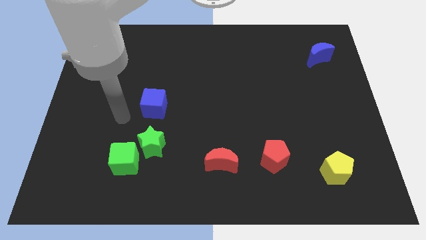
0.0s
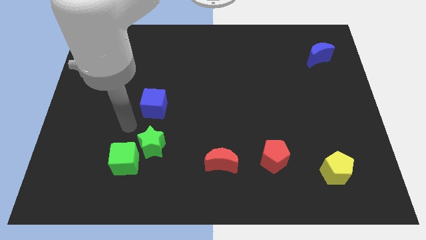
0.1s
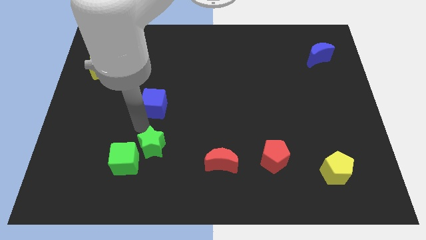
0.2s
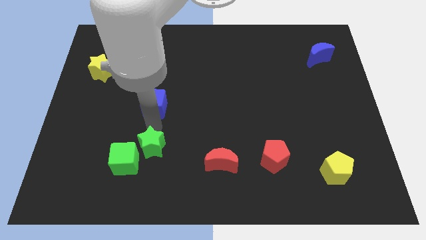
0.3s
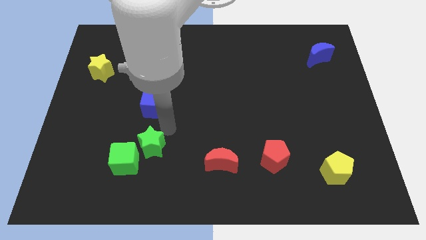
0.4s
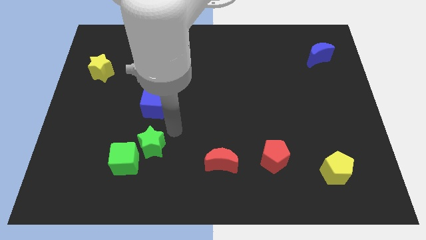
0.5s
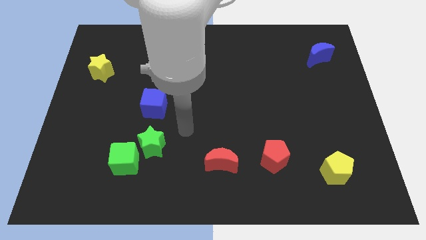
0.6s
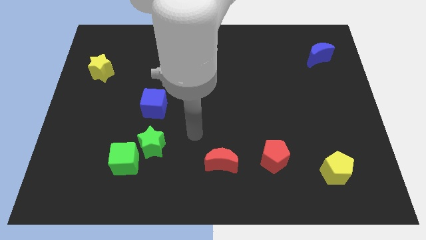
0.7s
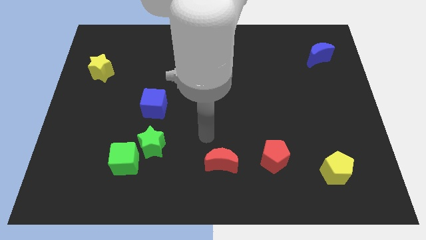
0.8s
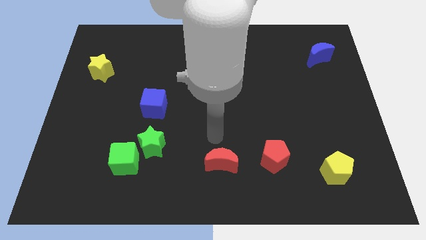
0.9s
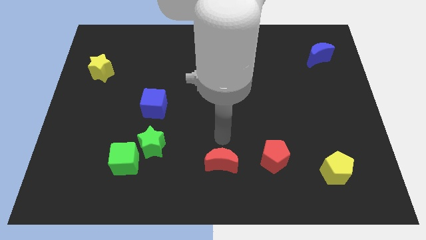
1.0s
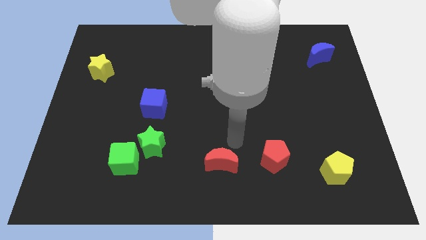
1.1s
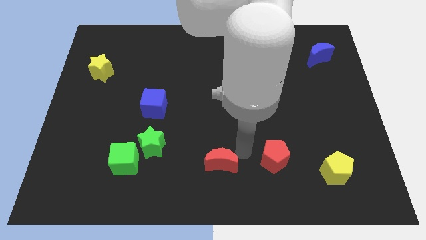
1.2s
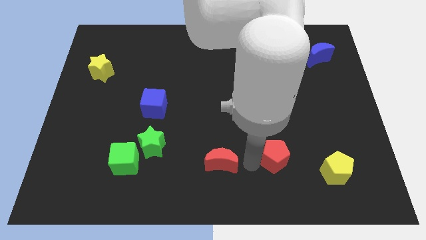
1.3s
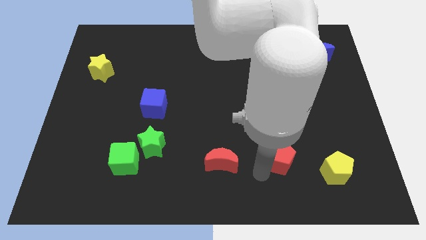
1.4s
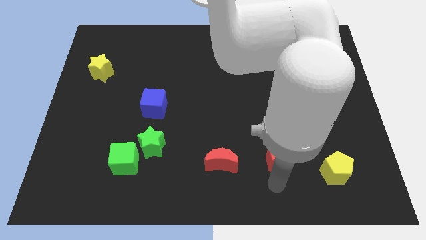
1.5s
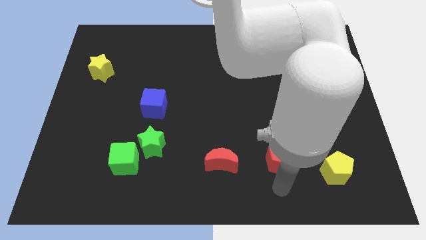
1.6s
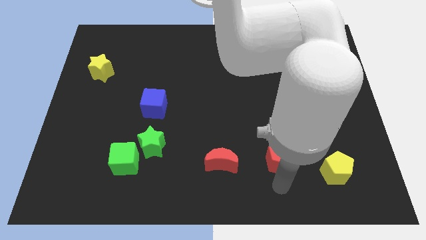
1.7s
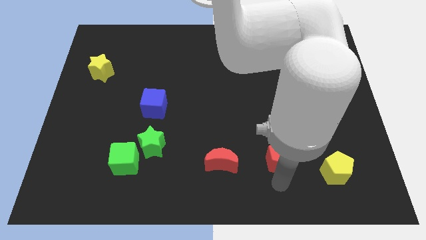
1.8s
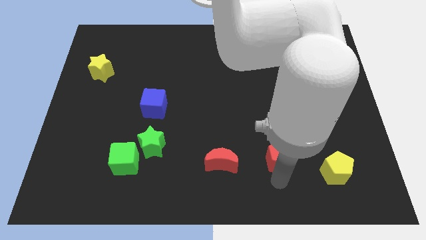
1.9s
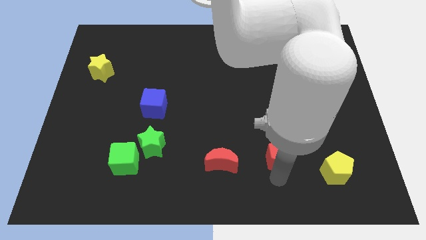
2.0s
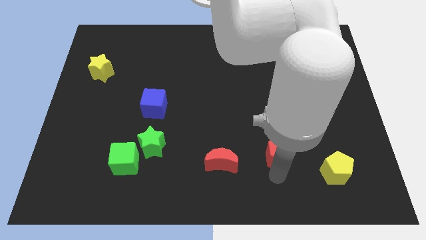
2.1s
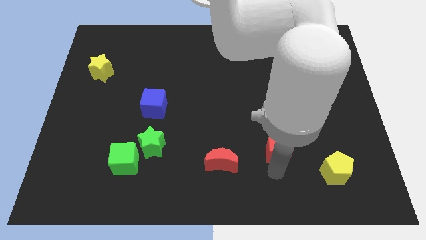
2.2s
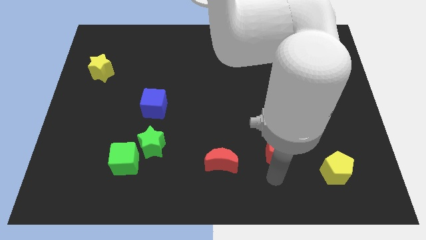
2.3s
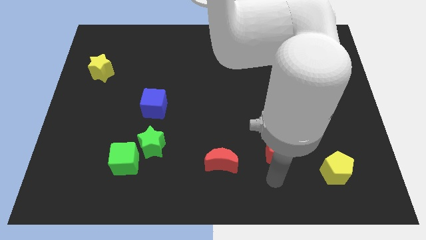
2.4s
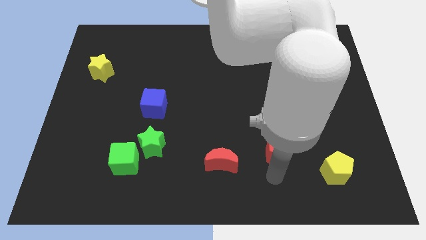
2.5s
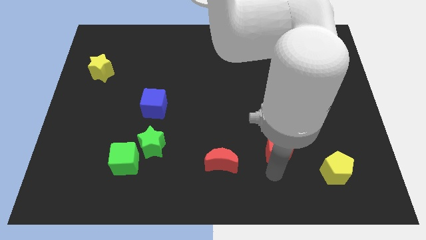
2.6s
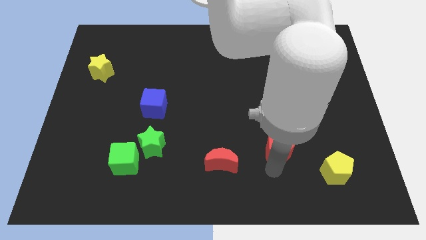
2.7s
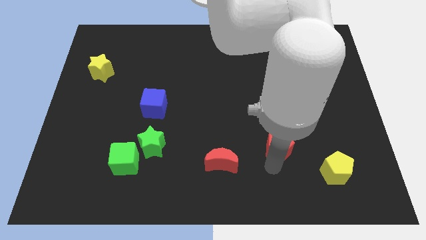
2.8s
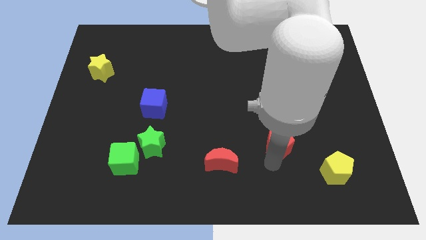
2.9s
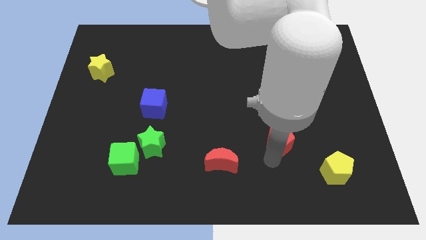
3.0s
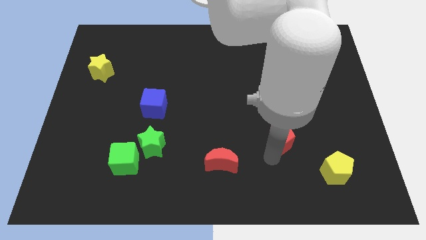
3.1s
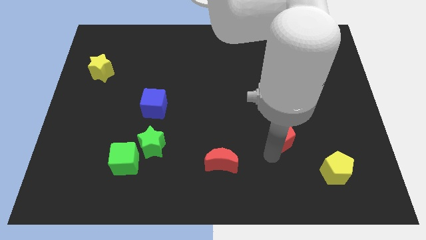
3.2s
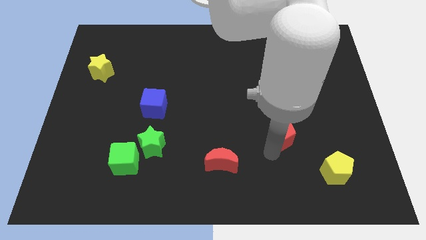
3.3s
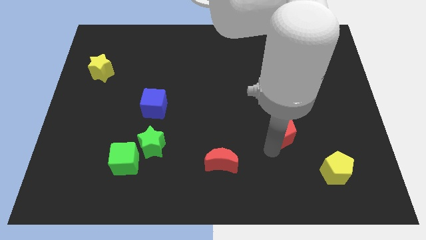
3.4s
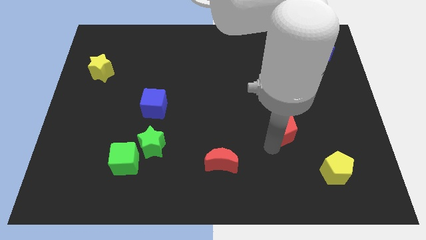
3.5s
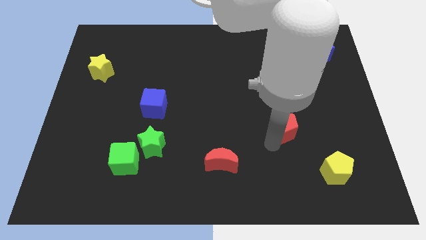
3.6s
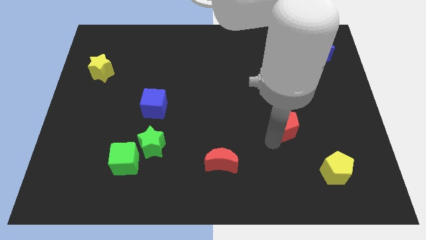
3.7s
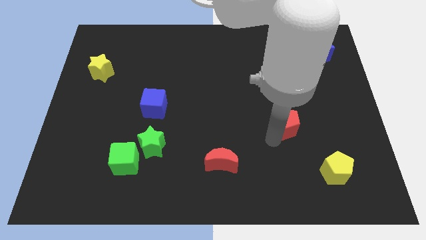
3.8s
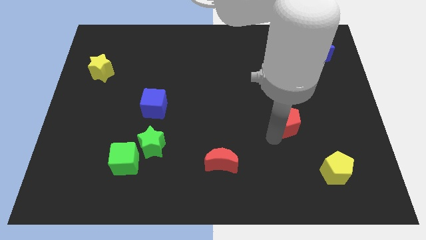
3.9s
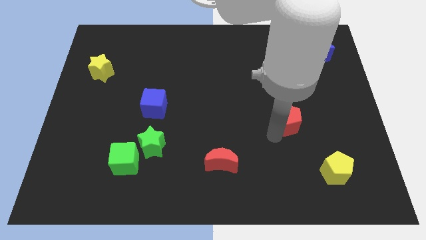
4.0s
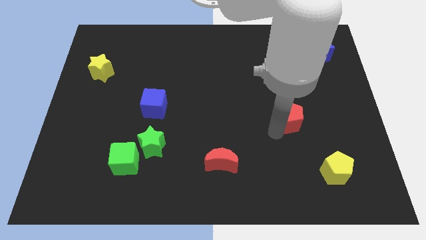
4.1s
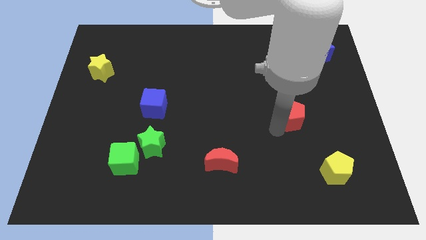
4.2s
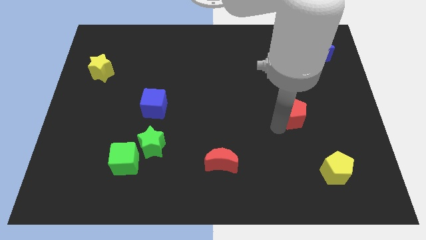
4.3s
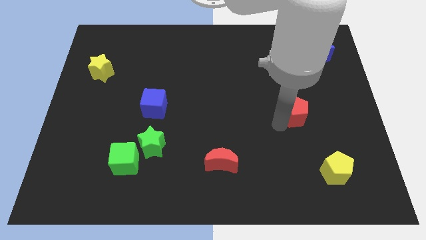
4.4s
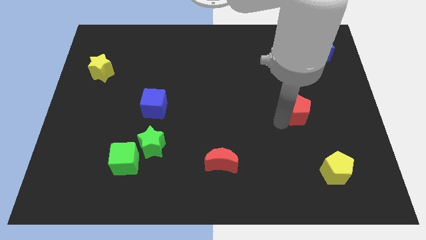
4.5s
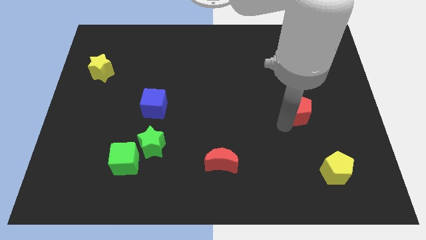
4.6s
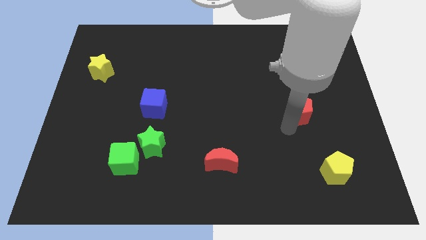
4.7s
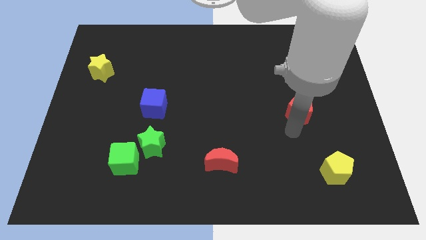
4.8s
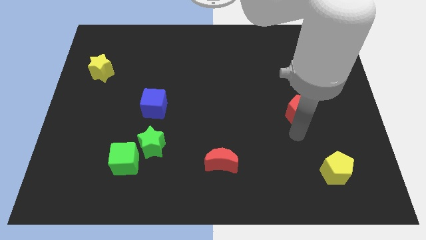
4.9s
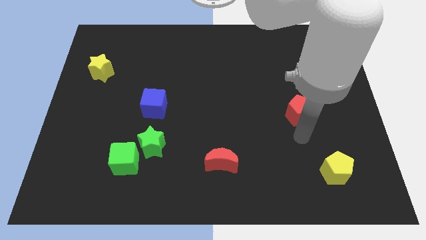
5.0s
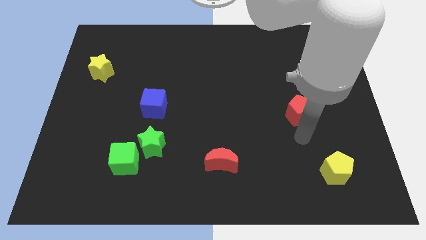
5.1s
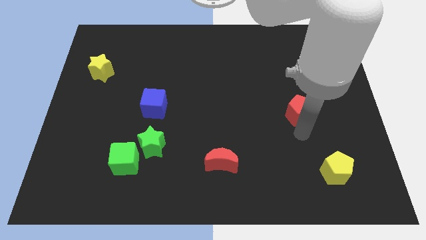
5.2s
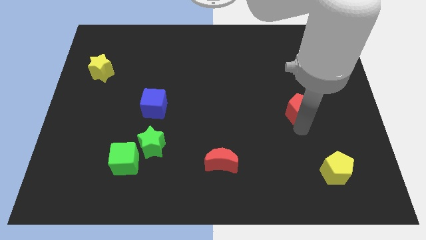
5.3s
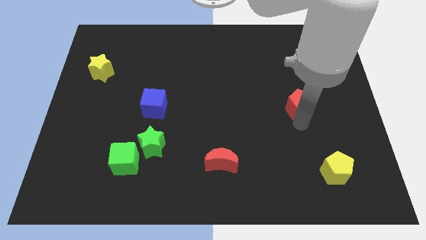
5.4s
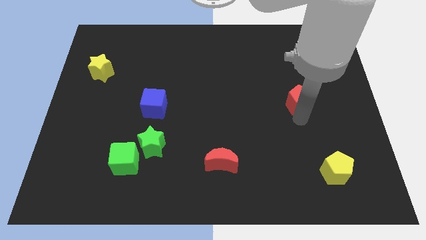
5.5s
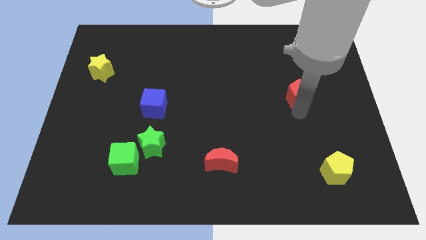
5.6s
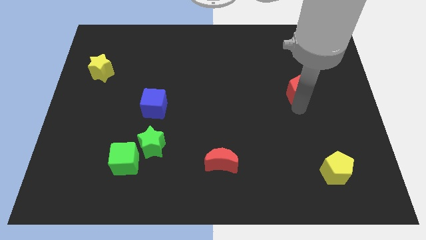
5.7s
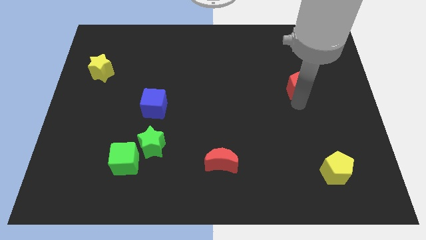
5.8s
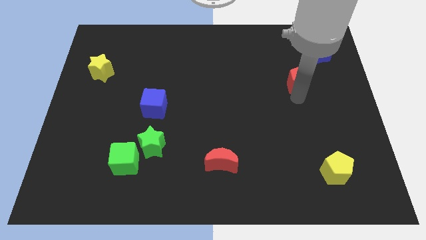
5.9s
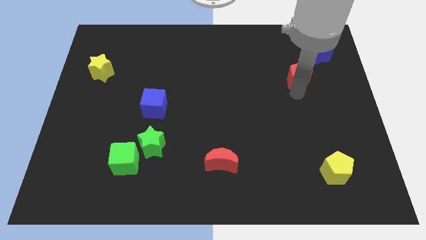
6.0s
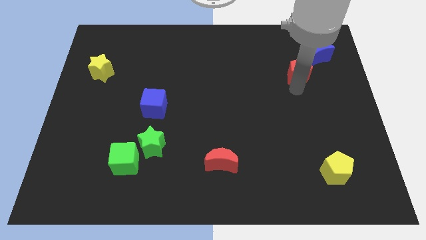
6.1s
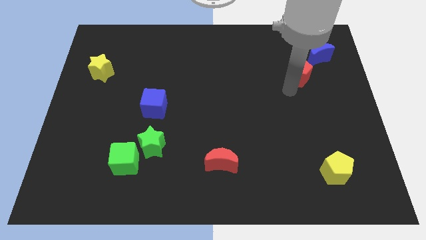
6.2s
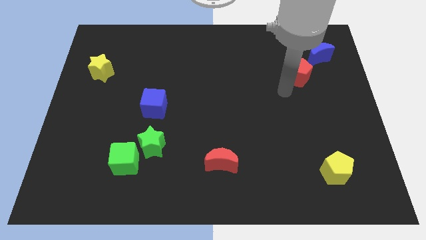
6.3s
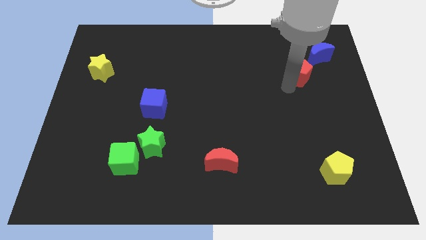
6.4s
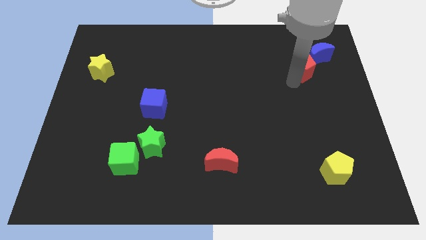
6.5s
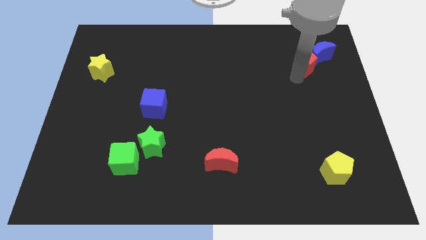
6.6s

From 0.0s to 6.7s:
put the red pentagon to the blue moon
